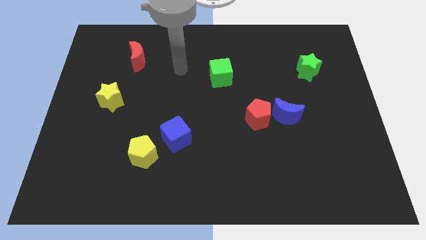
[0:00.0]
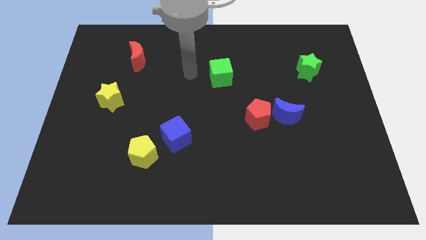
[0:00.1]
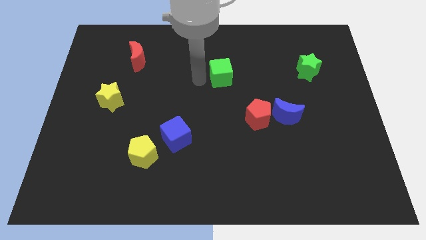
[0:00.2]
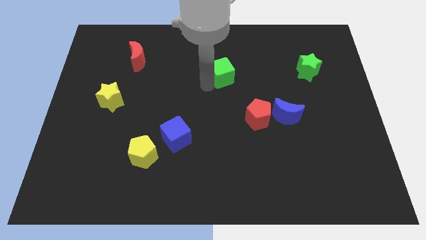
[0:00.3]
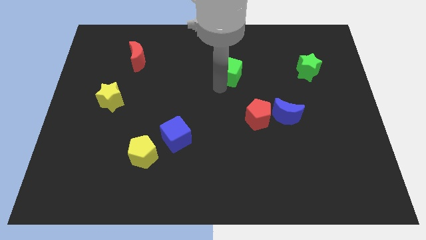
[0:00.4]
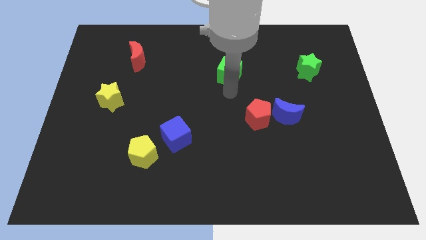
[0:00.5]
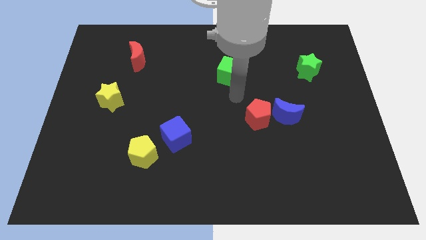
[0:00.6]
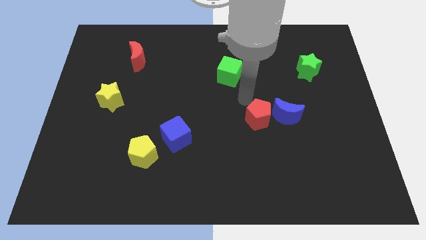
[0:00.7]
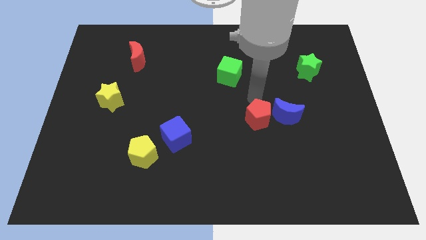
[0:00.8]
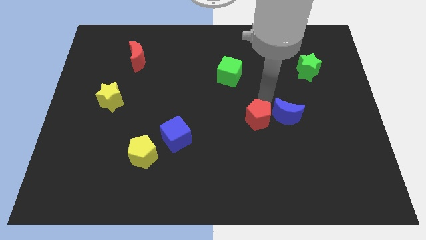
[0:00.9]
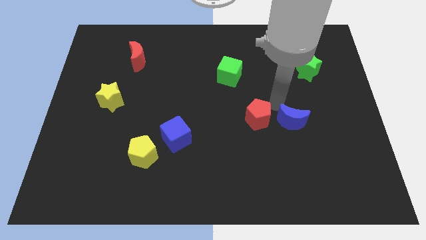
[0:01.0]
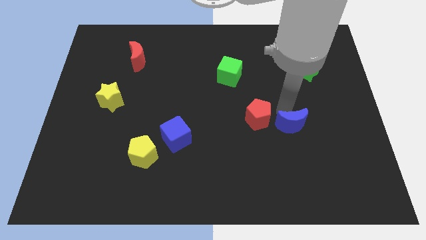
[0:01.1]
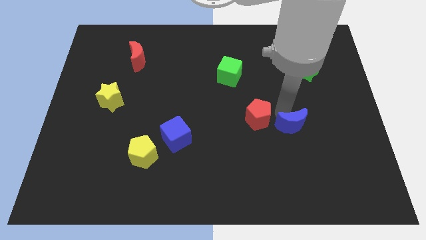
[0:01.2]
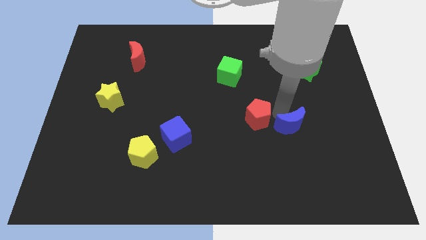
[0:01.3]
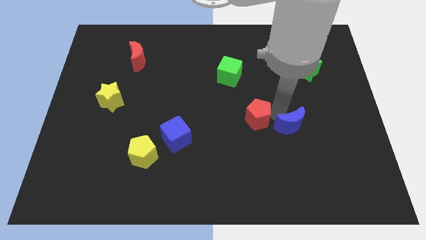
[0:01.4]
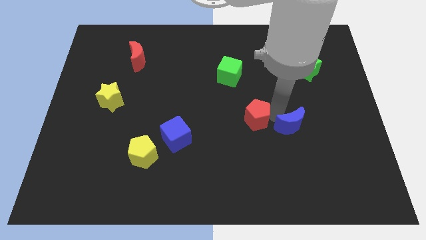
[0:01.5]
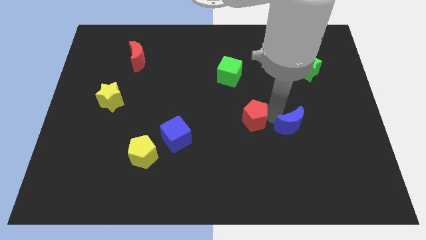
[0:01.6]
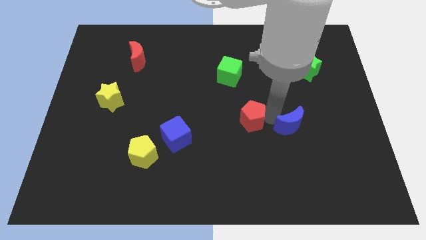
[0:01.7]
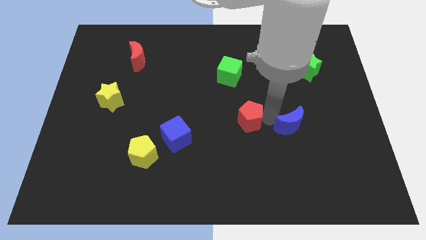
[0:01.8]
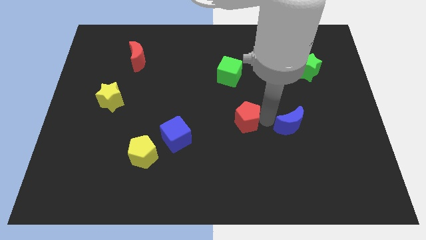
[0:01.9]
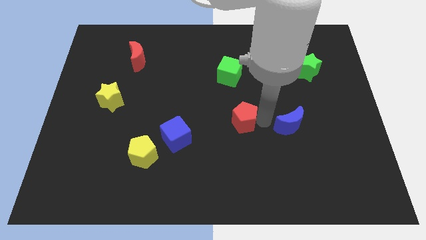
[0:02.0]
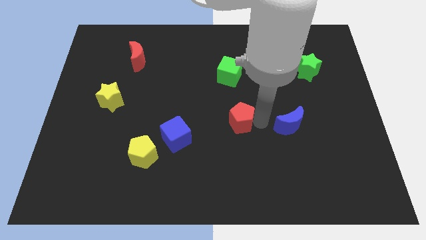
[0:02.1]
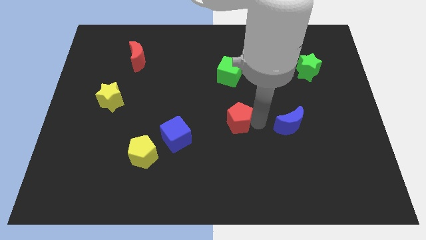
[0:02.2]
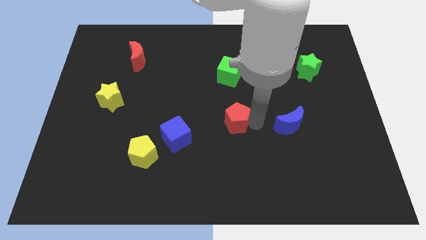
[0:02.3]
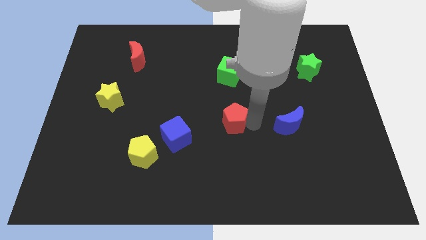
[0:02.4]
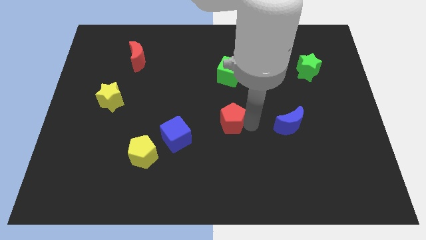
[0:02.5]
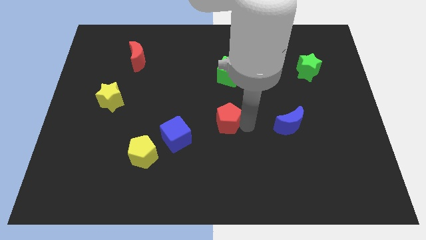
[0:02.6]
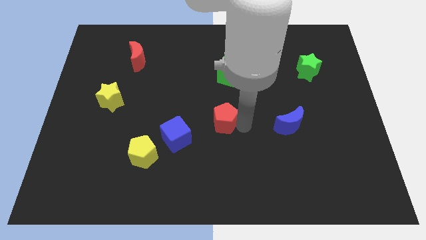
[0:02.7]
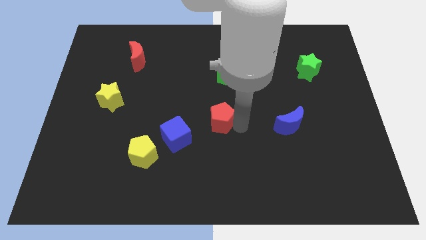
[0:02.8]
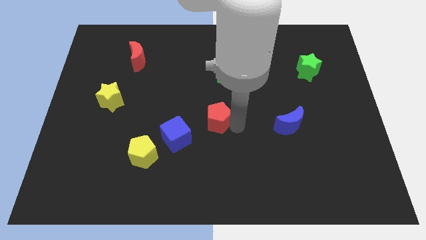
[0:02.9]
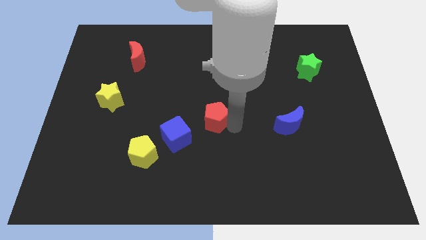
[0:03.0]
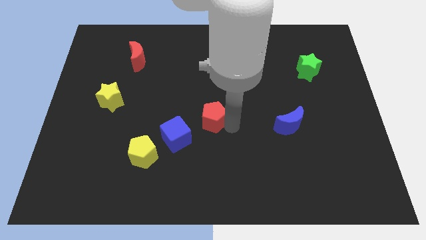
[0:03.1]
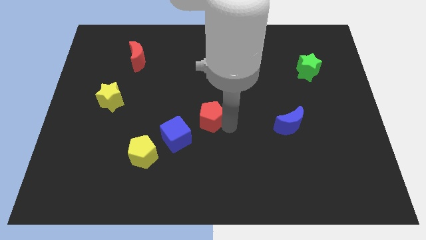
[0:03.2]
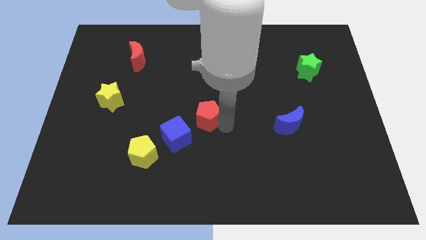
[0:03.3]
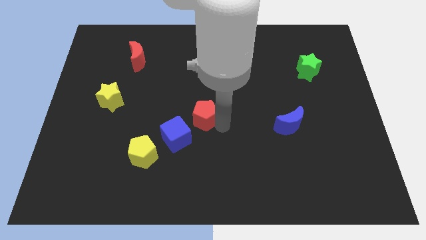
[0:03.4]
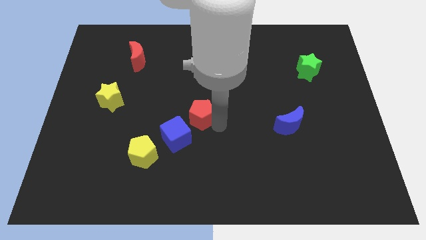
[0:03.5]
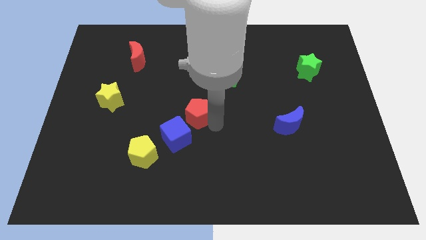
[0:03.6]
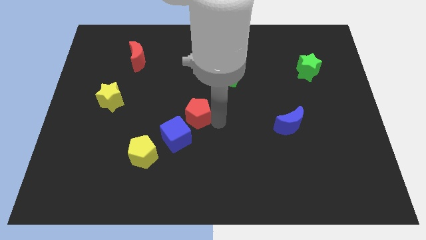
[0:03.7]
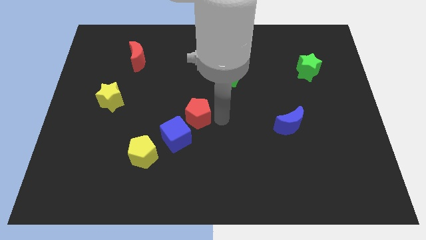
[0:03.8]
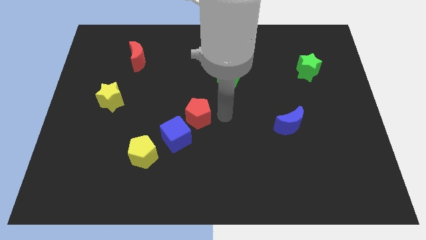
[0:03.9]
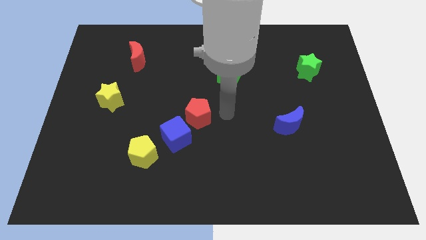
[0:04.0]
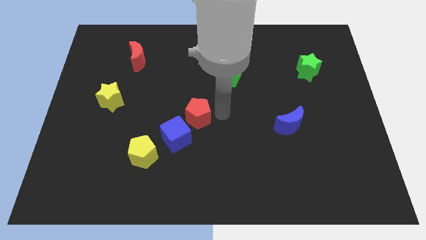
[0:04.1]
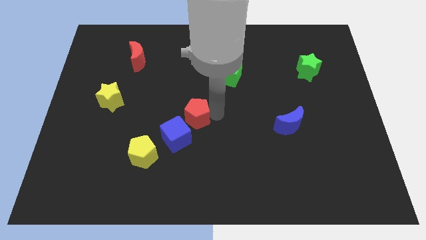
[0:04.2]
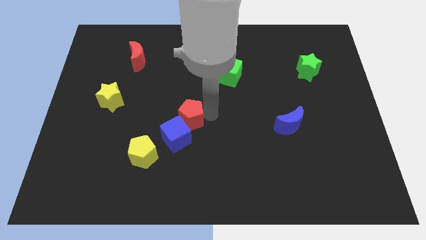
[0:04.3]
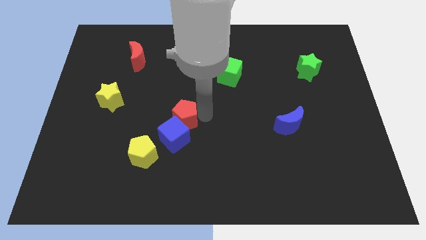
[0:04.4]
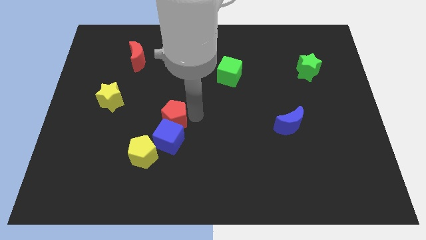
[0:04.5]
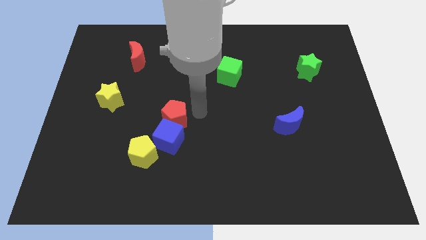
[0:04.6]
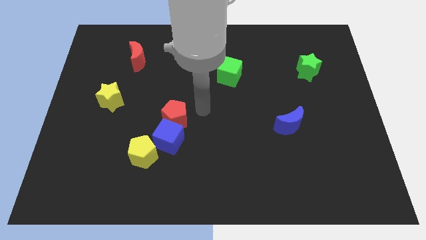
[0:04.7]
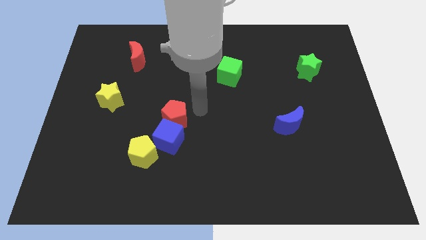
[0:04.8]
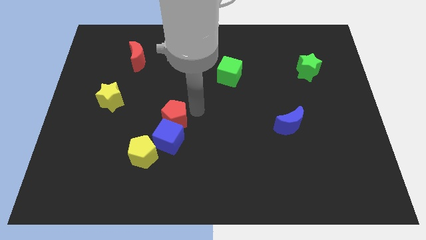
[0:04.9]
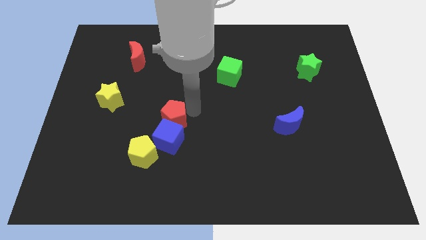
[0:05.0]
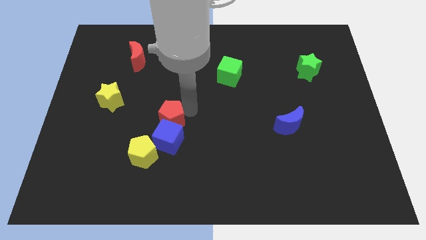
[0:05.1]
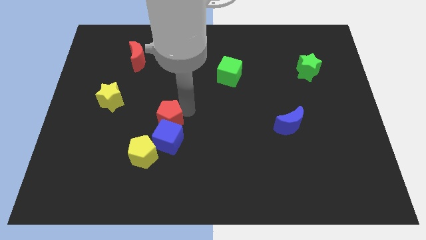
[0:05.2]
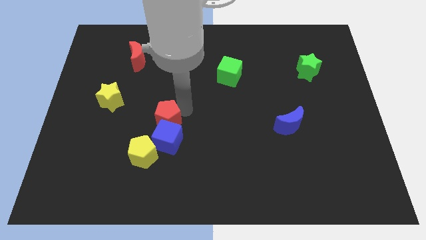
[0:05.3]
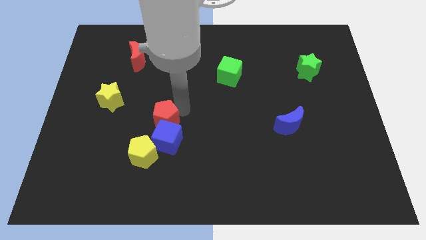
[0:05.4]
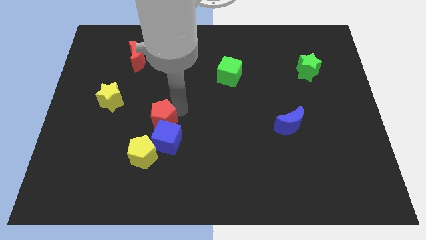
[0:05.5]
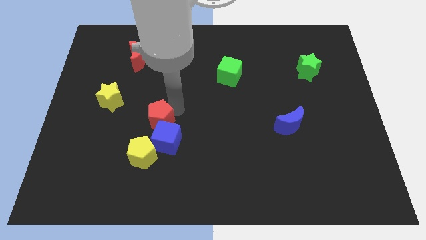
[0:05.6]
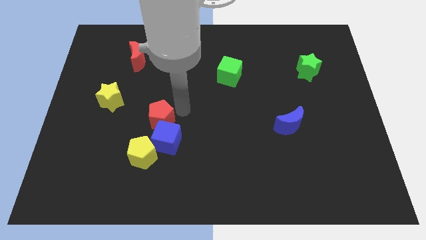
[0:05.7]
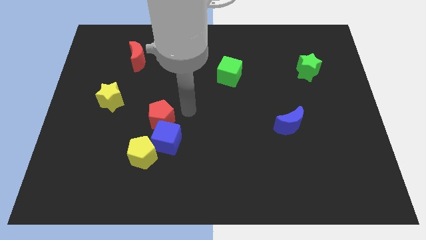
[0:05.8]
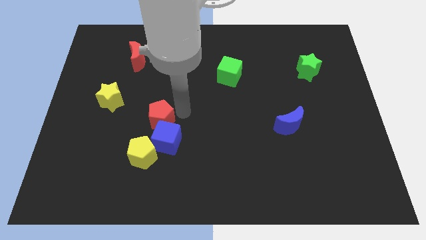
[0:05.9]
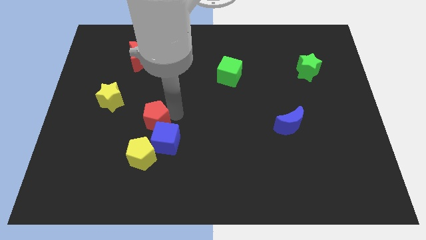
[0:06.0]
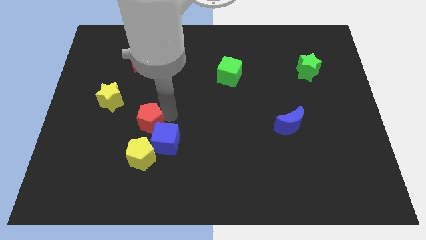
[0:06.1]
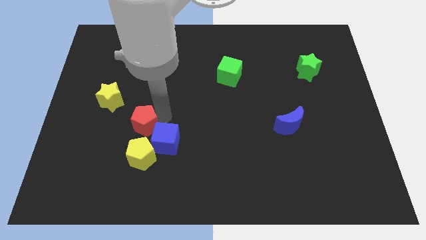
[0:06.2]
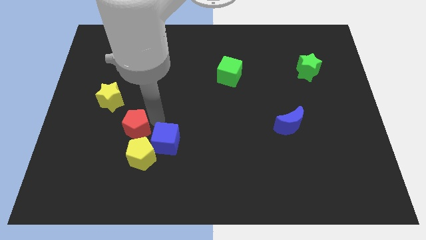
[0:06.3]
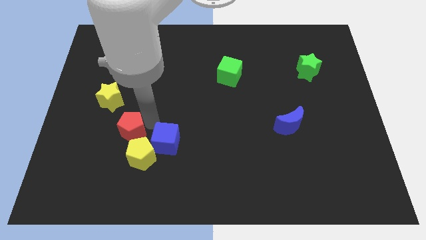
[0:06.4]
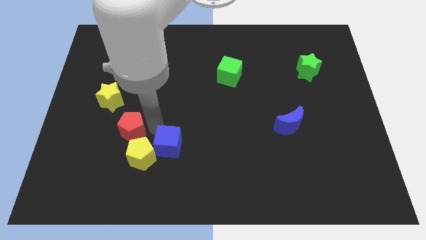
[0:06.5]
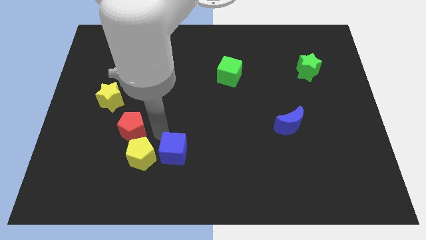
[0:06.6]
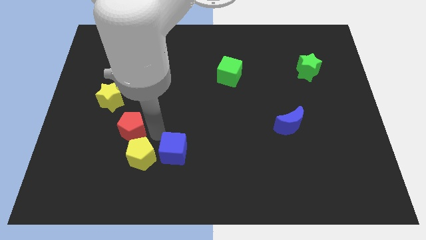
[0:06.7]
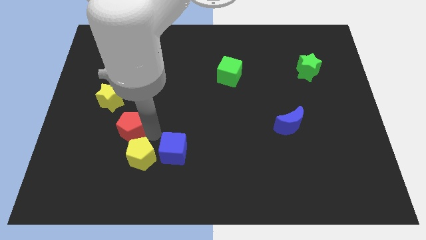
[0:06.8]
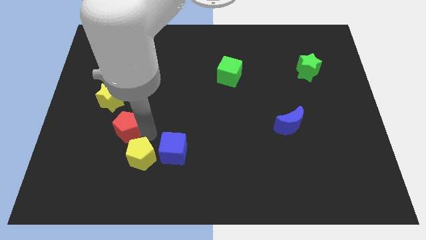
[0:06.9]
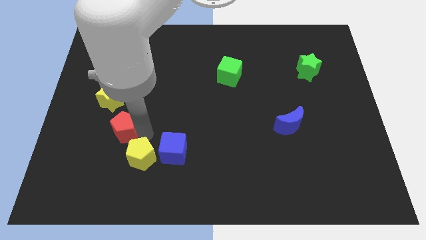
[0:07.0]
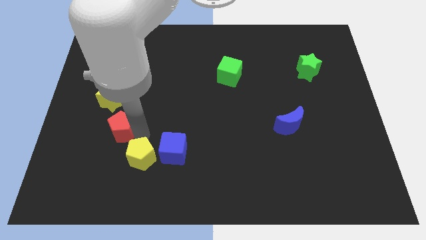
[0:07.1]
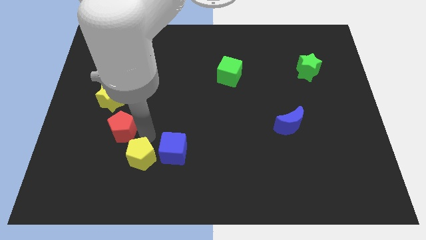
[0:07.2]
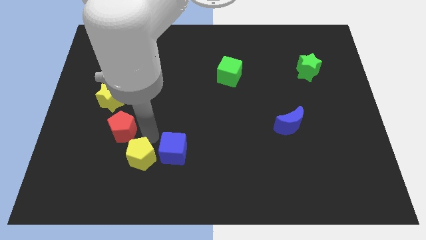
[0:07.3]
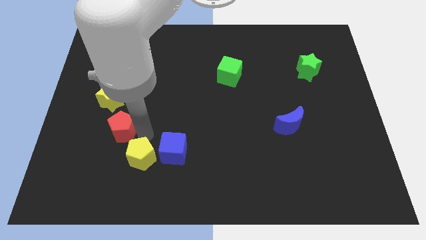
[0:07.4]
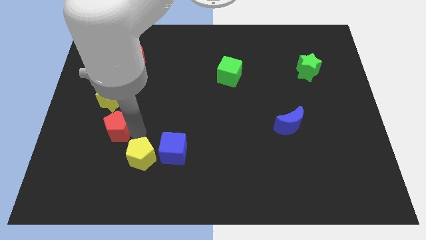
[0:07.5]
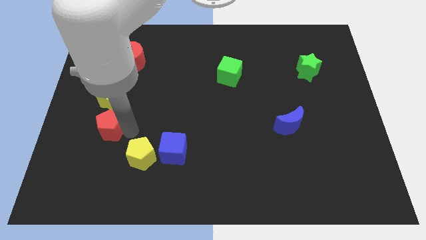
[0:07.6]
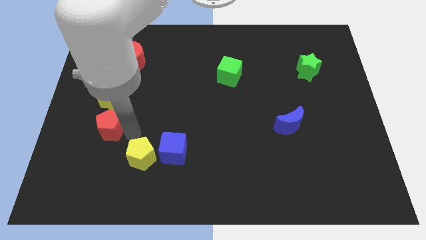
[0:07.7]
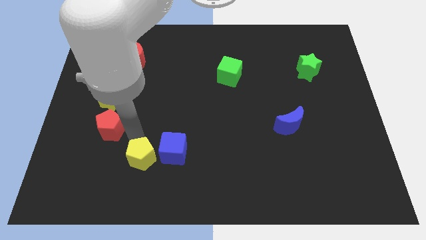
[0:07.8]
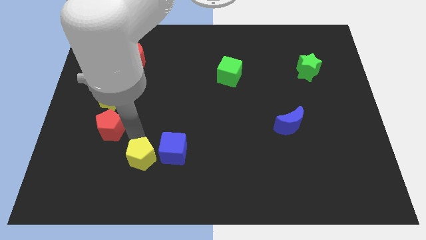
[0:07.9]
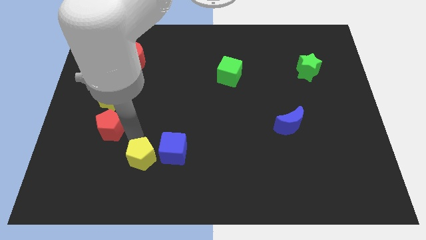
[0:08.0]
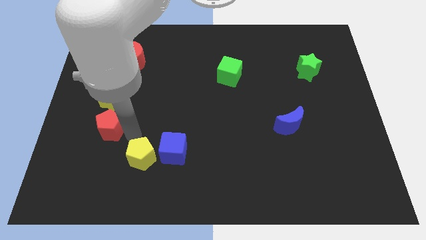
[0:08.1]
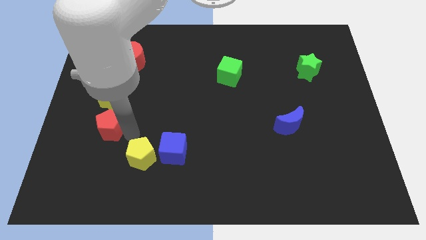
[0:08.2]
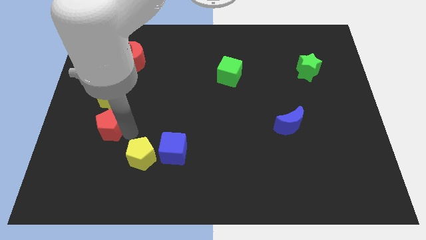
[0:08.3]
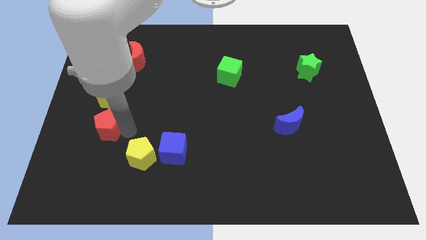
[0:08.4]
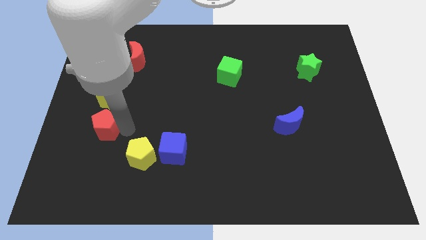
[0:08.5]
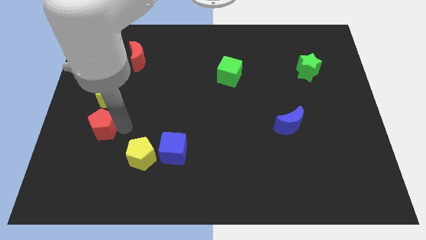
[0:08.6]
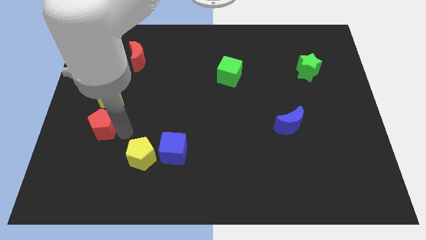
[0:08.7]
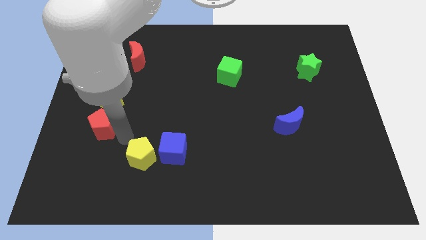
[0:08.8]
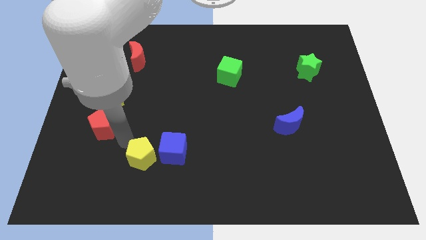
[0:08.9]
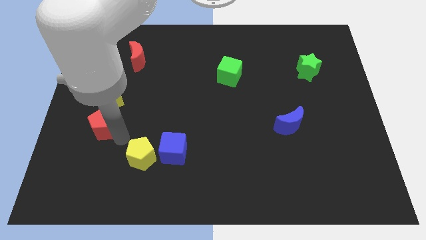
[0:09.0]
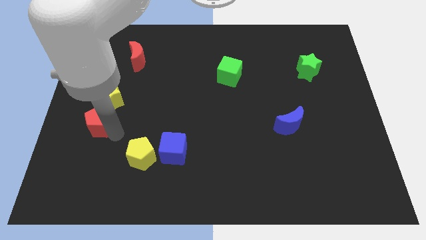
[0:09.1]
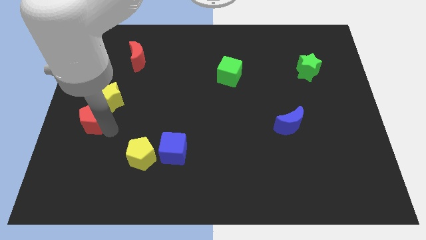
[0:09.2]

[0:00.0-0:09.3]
move the red pentagon to the left side
